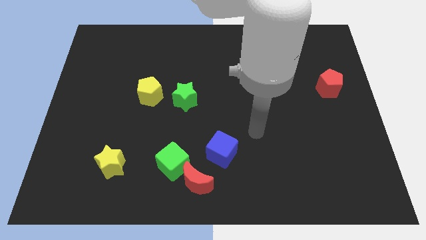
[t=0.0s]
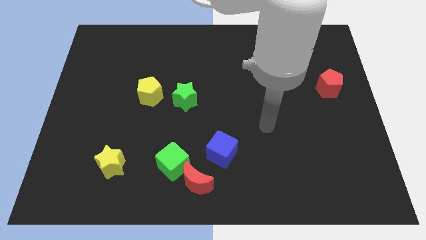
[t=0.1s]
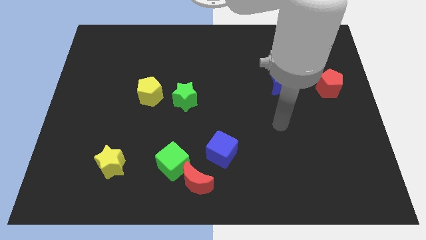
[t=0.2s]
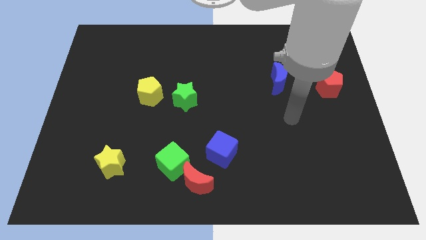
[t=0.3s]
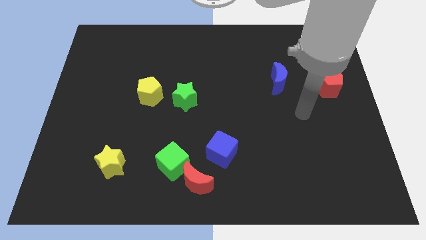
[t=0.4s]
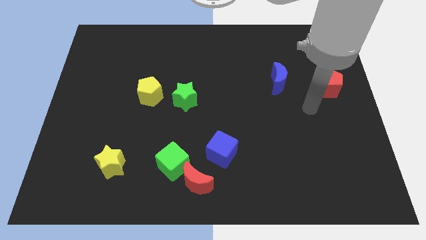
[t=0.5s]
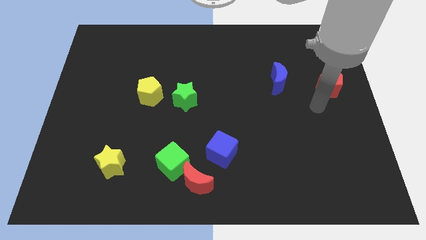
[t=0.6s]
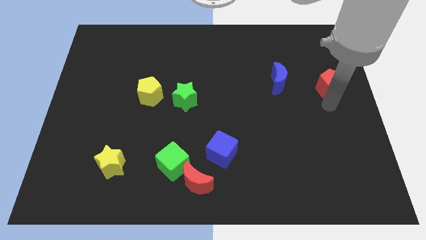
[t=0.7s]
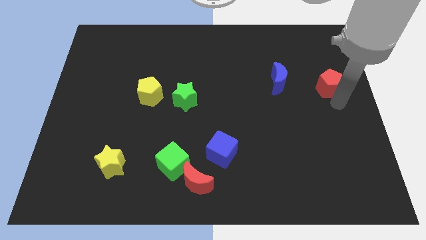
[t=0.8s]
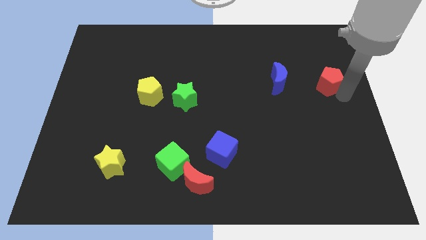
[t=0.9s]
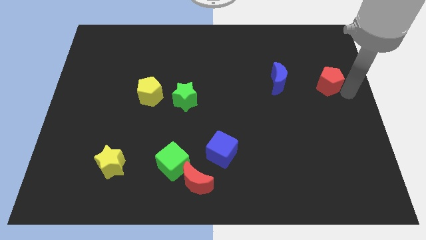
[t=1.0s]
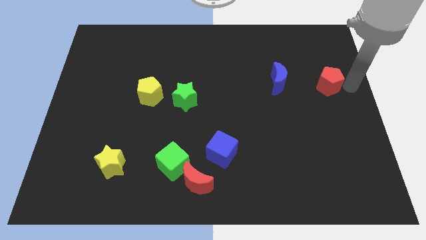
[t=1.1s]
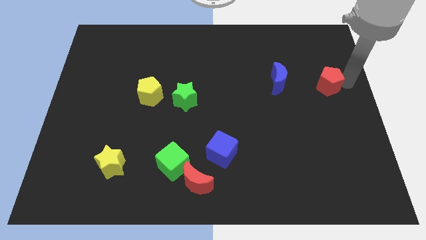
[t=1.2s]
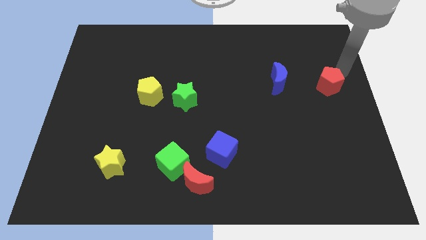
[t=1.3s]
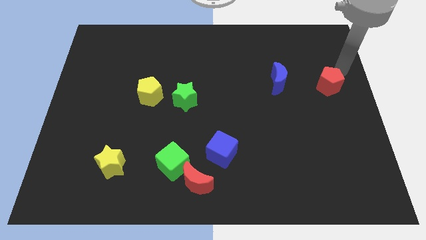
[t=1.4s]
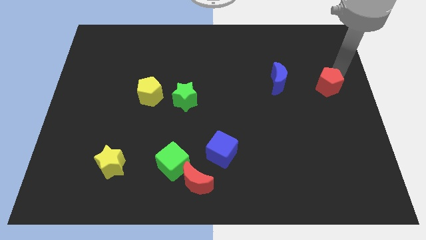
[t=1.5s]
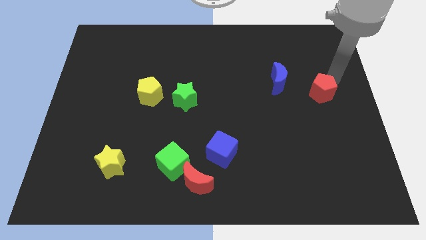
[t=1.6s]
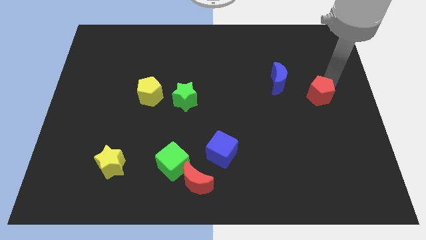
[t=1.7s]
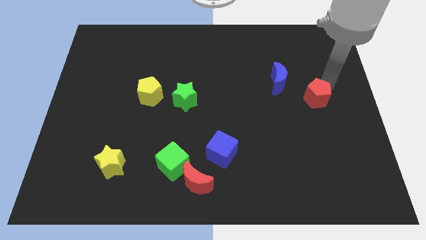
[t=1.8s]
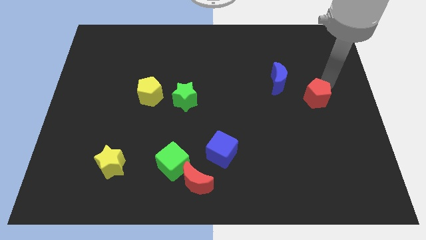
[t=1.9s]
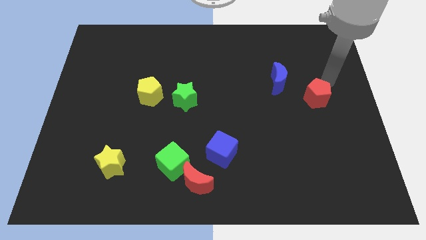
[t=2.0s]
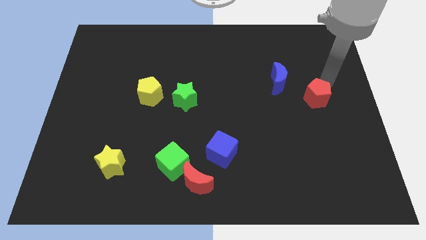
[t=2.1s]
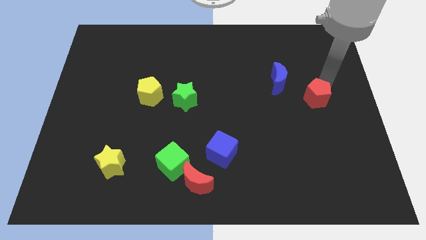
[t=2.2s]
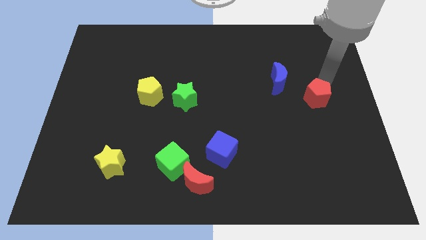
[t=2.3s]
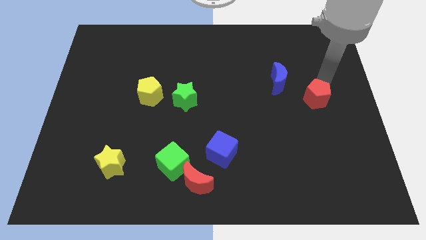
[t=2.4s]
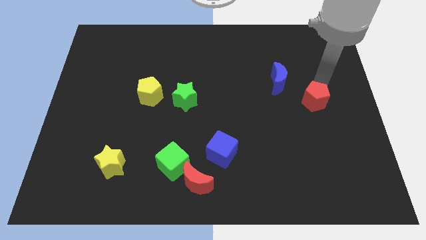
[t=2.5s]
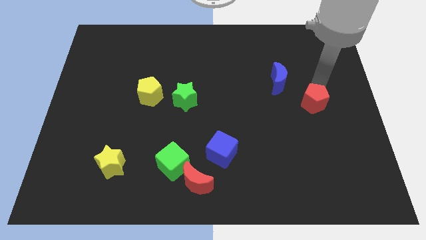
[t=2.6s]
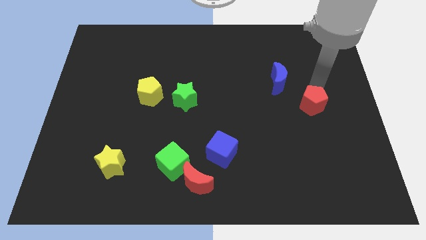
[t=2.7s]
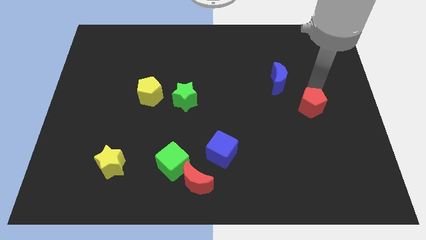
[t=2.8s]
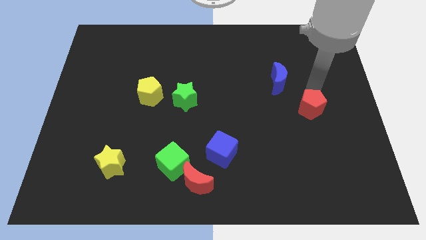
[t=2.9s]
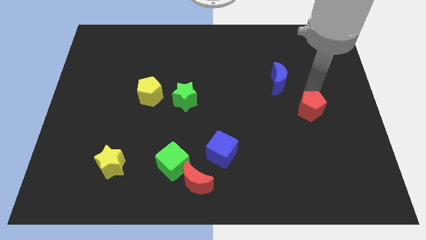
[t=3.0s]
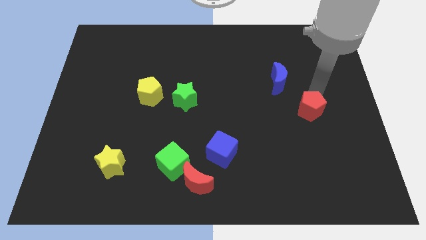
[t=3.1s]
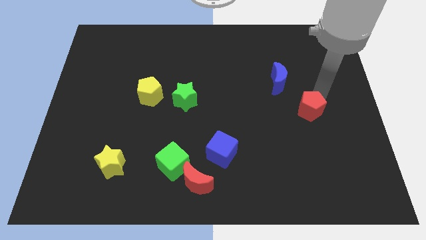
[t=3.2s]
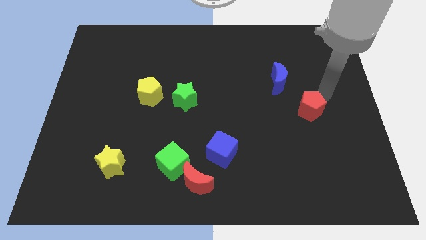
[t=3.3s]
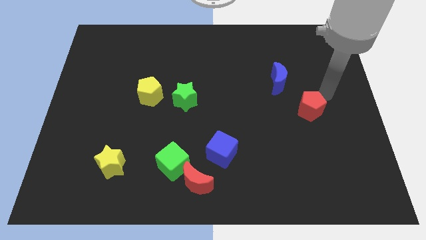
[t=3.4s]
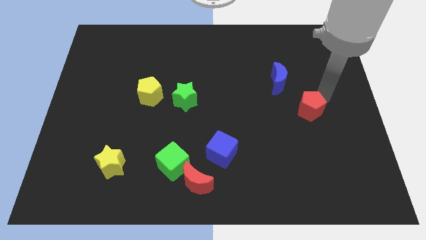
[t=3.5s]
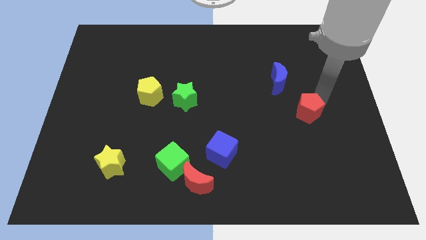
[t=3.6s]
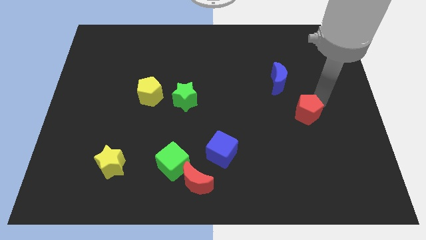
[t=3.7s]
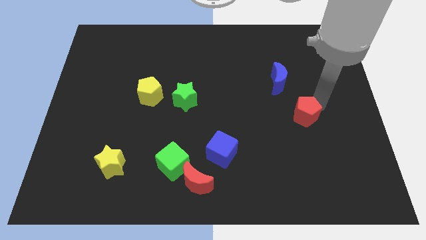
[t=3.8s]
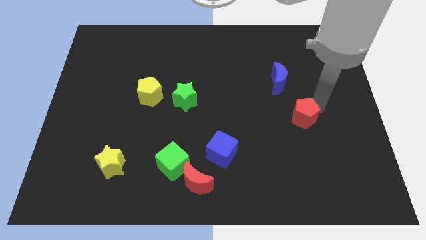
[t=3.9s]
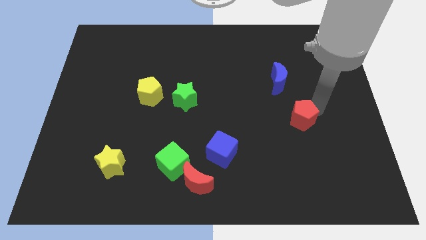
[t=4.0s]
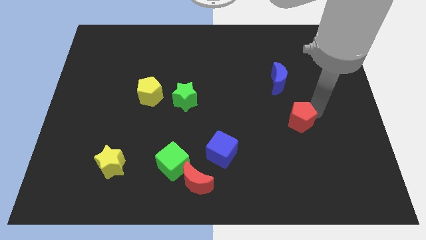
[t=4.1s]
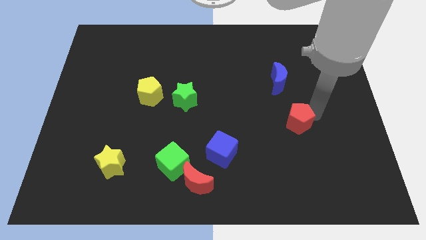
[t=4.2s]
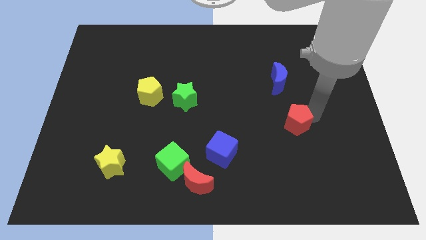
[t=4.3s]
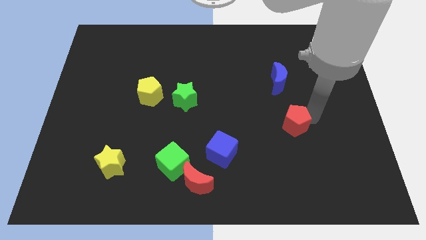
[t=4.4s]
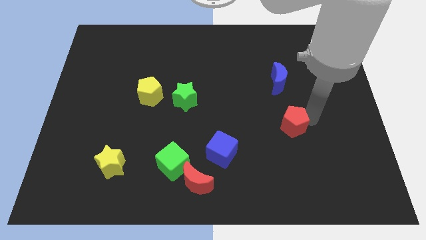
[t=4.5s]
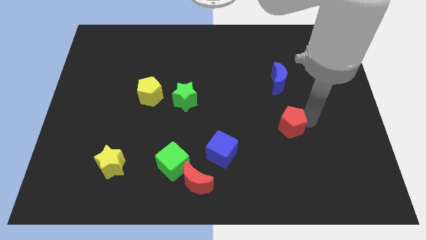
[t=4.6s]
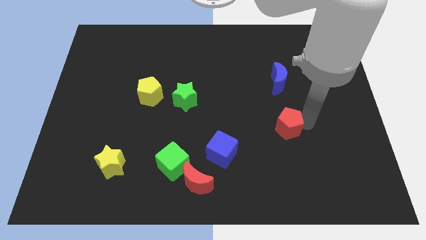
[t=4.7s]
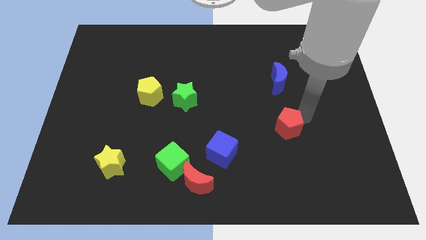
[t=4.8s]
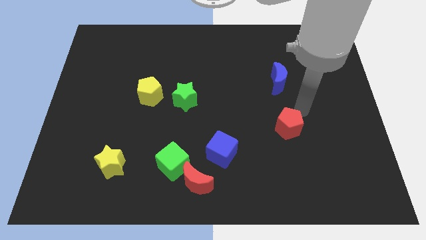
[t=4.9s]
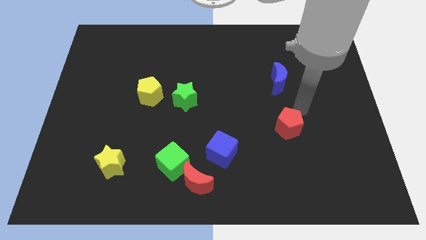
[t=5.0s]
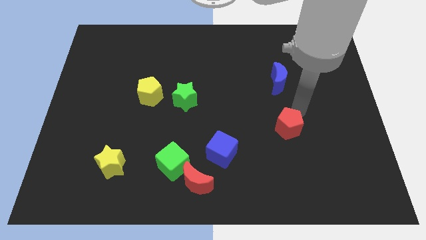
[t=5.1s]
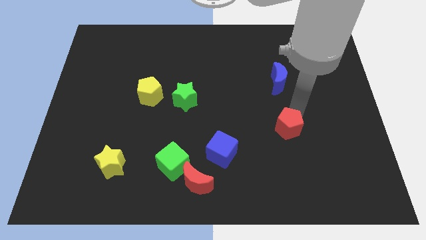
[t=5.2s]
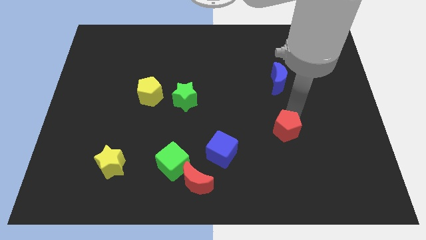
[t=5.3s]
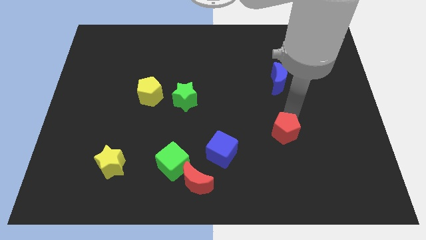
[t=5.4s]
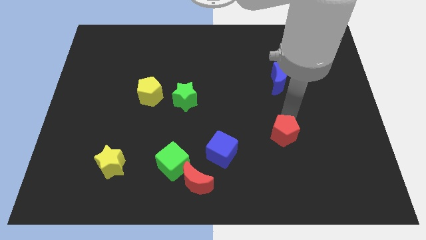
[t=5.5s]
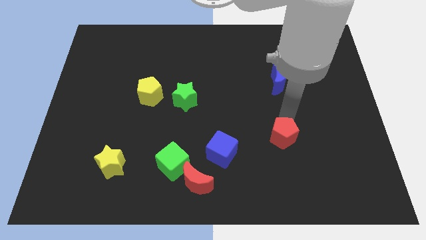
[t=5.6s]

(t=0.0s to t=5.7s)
move the red pentagon right of the blue cube
